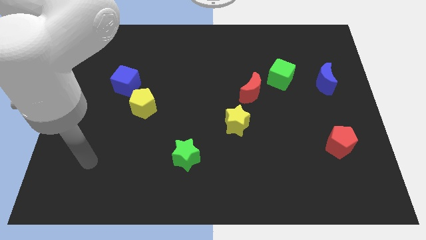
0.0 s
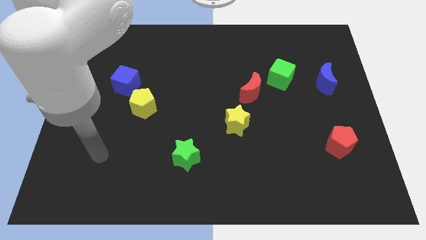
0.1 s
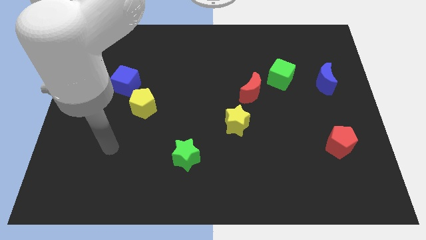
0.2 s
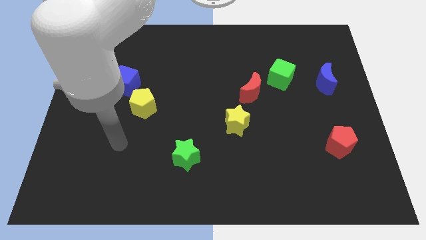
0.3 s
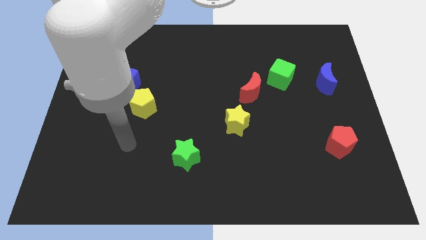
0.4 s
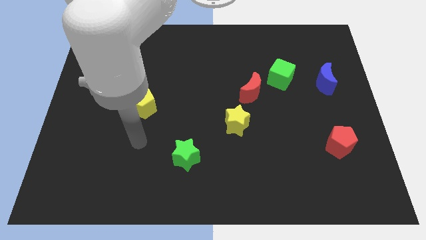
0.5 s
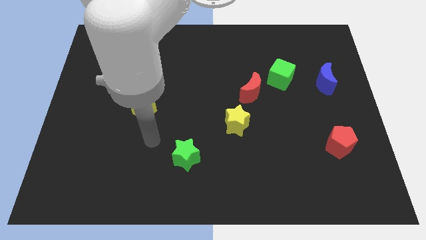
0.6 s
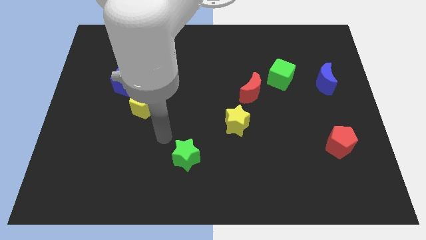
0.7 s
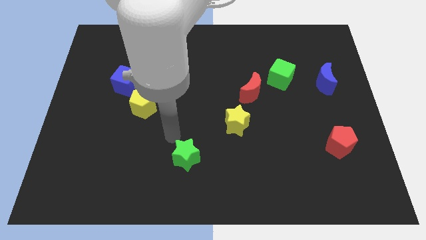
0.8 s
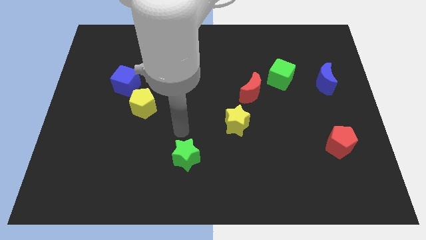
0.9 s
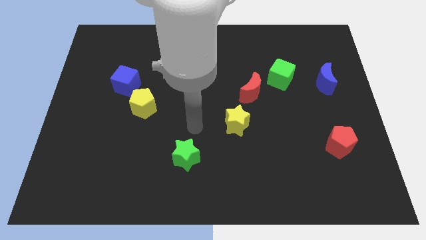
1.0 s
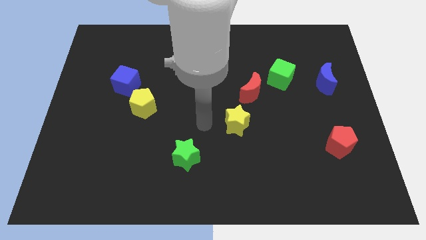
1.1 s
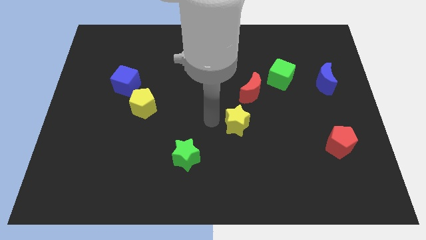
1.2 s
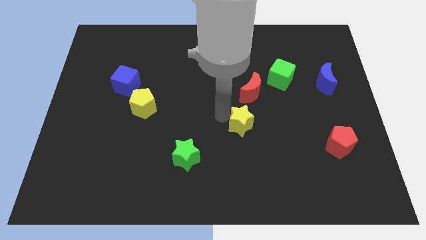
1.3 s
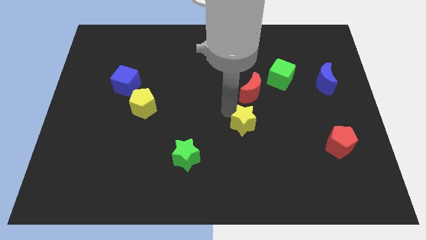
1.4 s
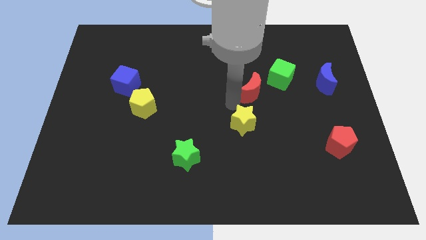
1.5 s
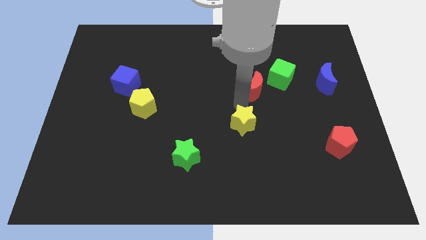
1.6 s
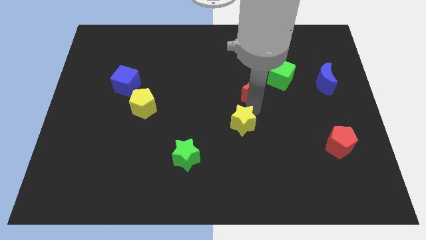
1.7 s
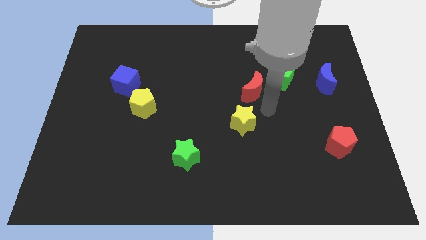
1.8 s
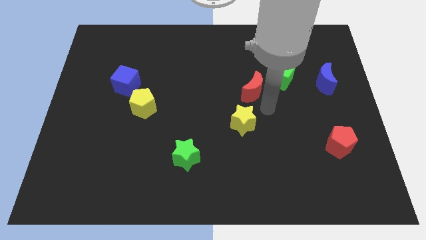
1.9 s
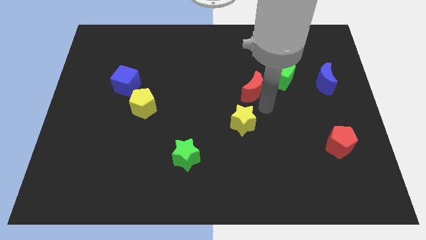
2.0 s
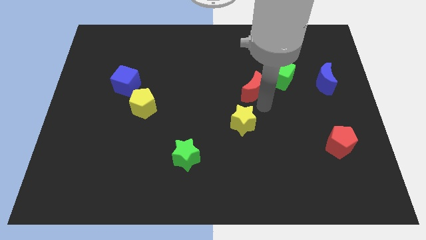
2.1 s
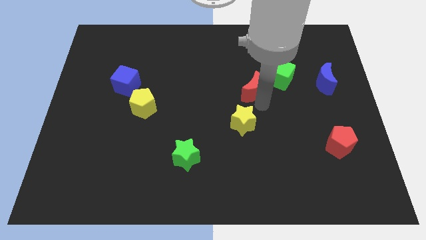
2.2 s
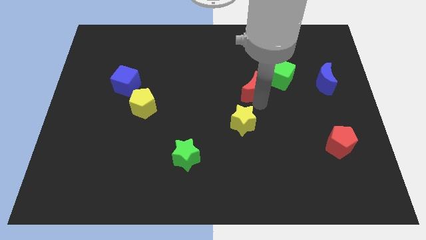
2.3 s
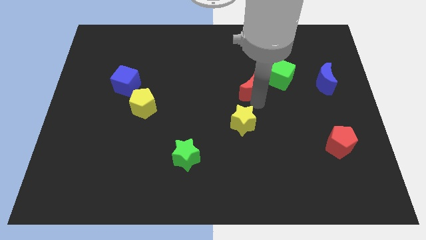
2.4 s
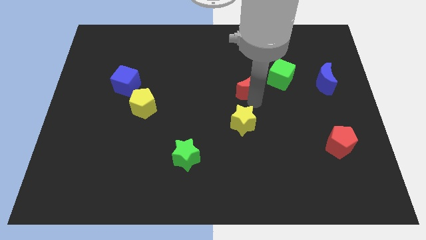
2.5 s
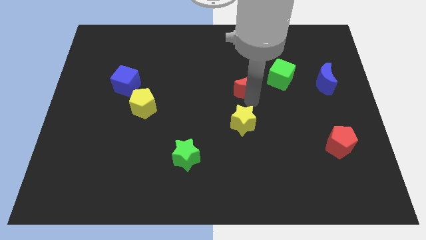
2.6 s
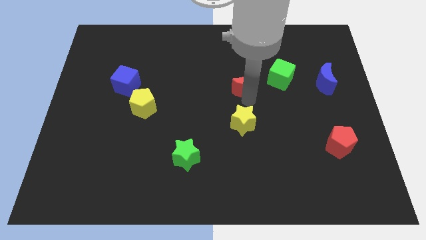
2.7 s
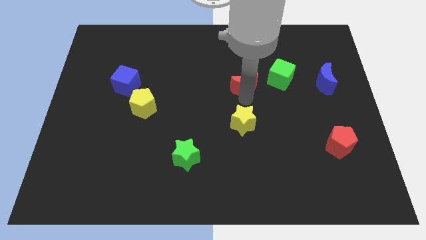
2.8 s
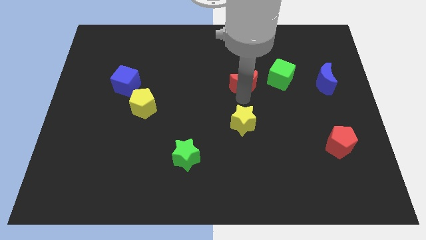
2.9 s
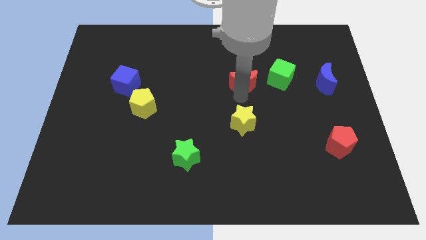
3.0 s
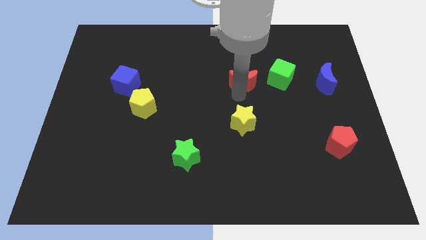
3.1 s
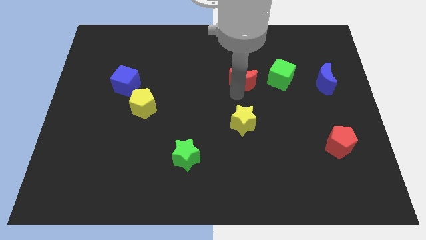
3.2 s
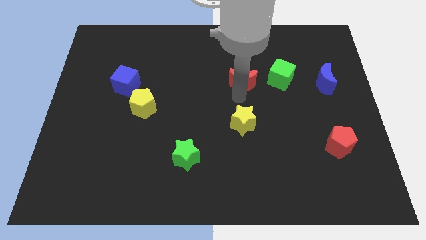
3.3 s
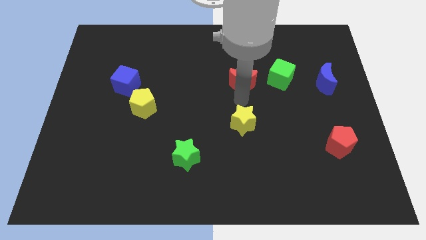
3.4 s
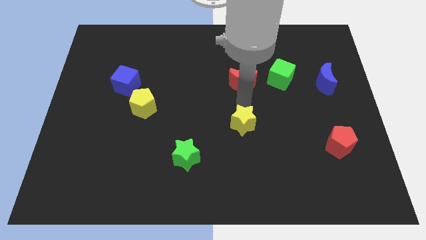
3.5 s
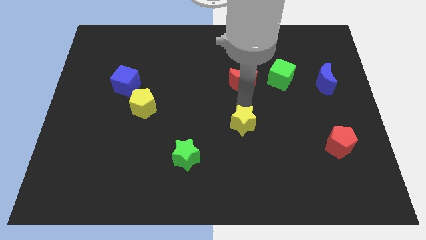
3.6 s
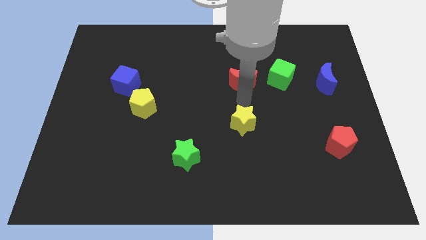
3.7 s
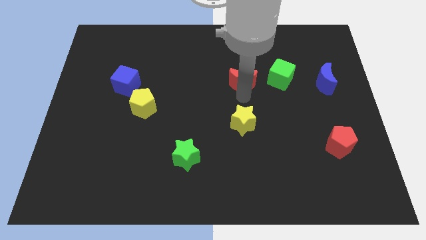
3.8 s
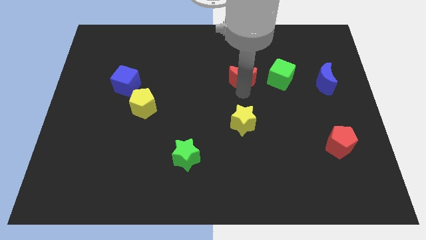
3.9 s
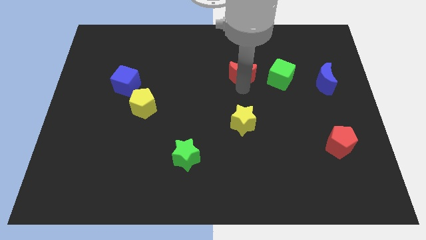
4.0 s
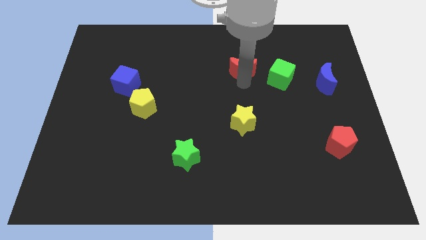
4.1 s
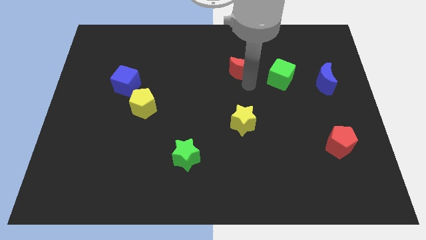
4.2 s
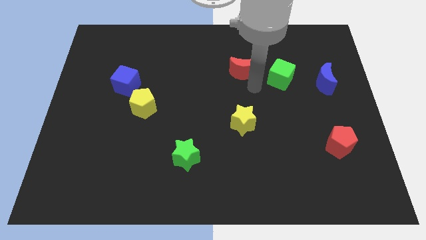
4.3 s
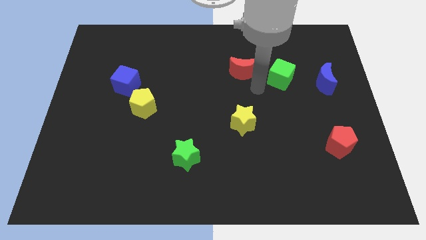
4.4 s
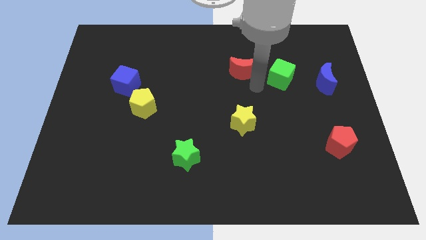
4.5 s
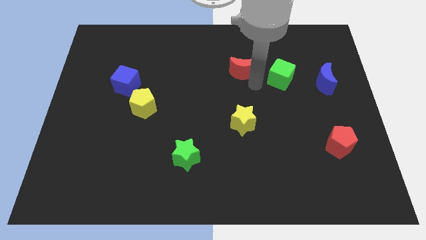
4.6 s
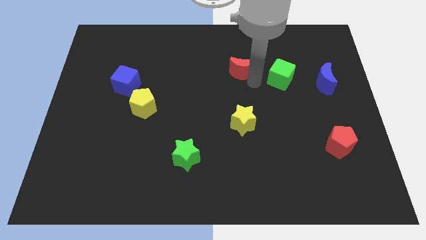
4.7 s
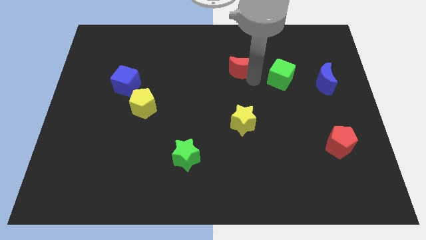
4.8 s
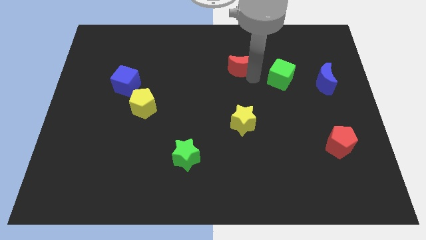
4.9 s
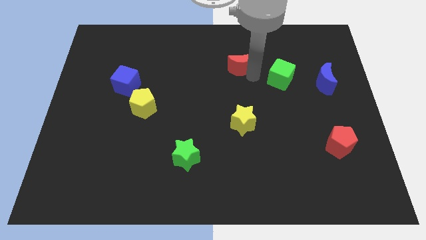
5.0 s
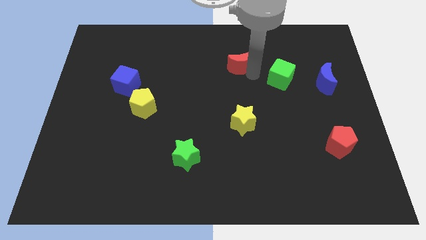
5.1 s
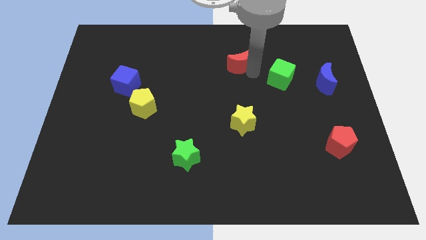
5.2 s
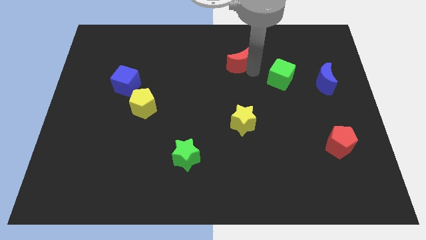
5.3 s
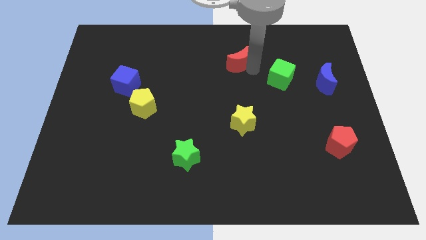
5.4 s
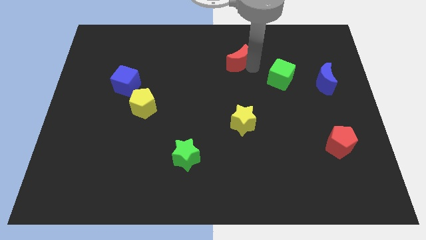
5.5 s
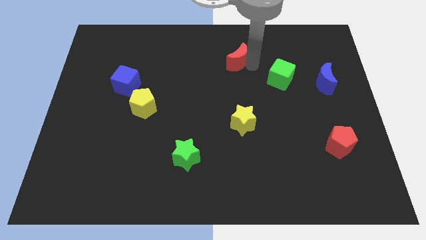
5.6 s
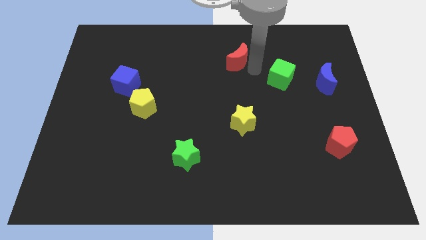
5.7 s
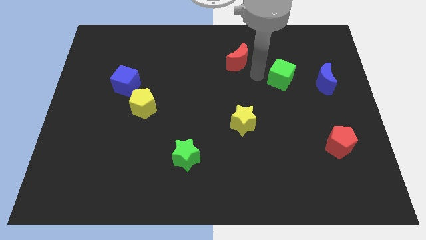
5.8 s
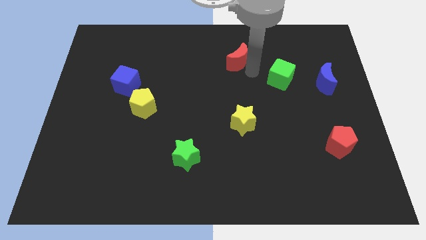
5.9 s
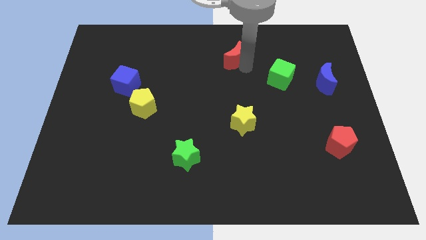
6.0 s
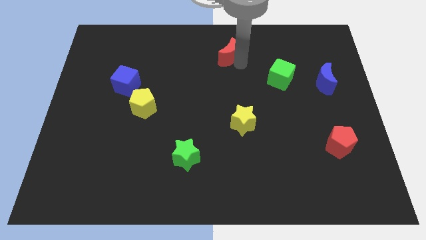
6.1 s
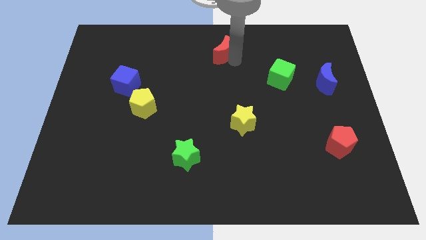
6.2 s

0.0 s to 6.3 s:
slide the red moon to the top
